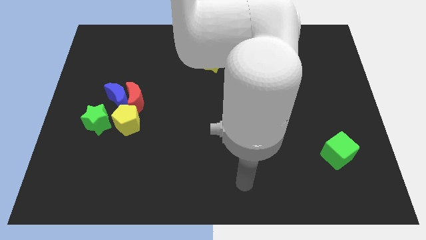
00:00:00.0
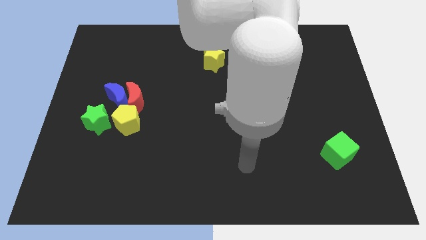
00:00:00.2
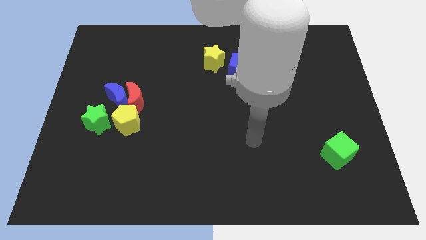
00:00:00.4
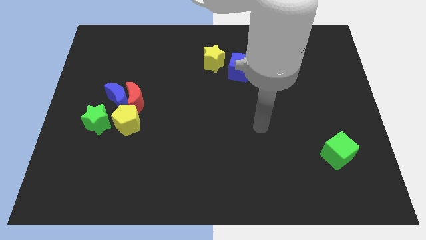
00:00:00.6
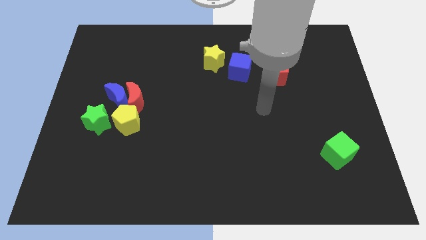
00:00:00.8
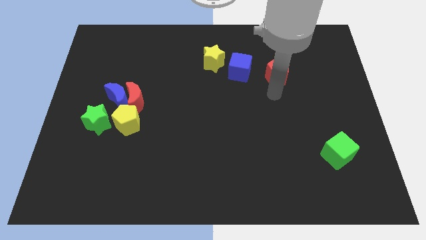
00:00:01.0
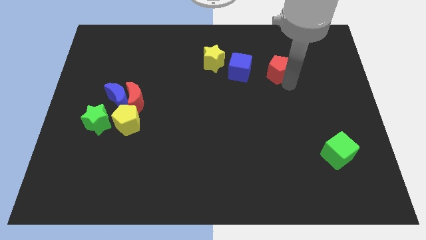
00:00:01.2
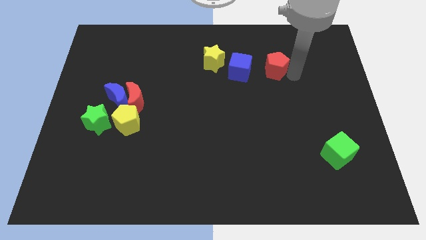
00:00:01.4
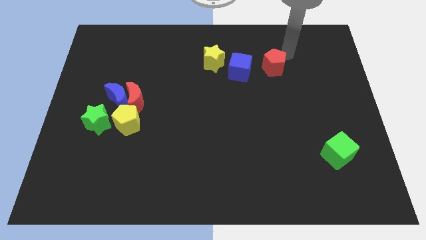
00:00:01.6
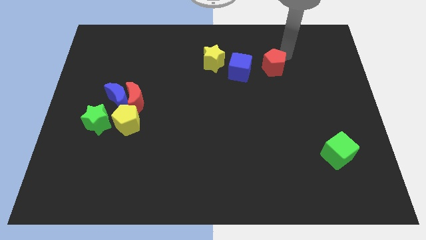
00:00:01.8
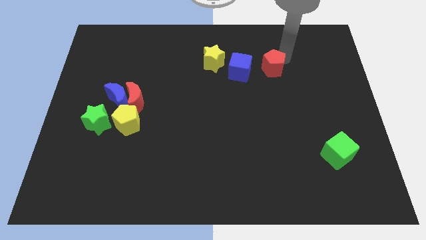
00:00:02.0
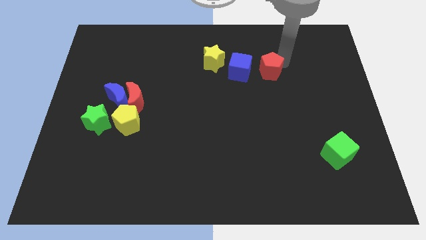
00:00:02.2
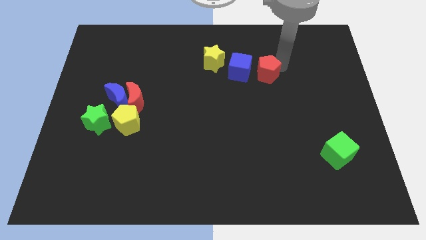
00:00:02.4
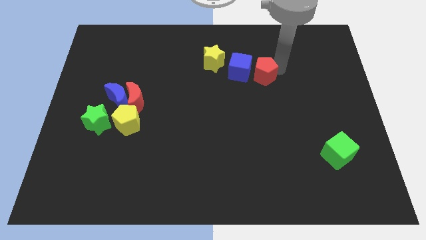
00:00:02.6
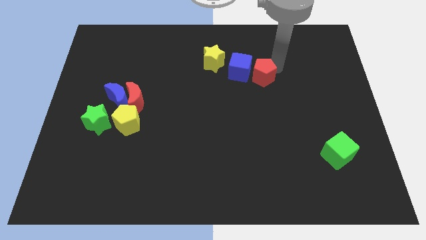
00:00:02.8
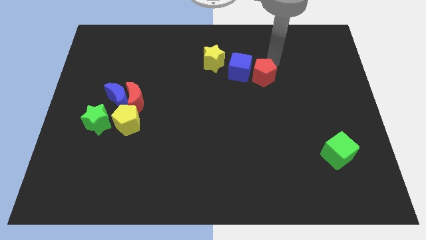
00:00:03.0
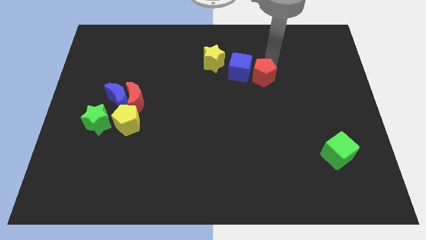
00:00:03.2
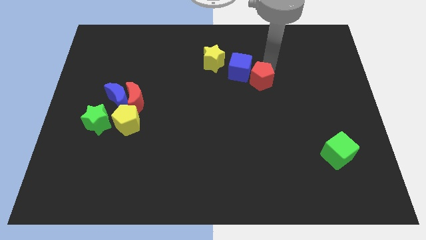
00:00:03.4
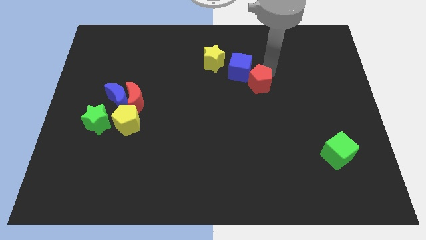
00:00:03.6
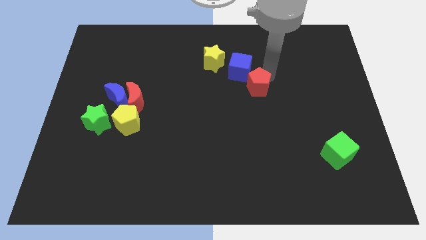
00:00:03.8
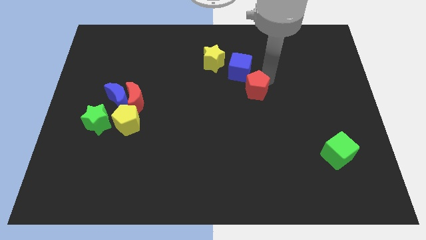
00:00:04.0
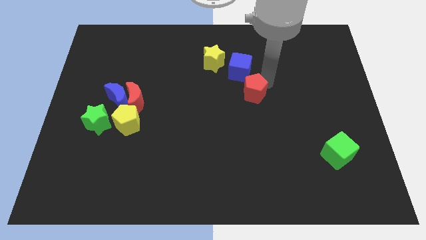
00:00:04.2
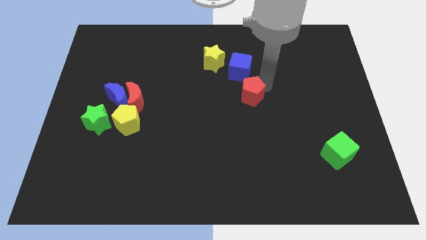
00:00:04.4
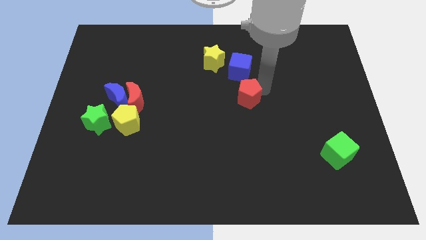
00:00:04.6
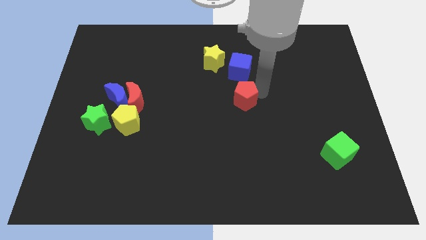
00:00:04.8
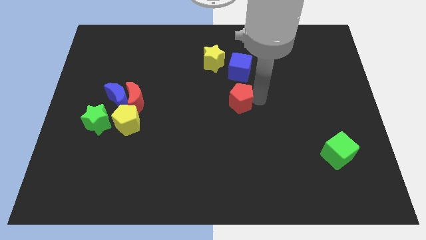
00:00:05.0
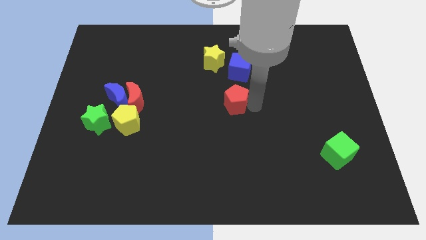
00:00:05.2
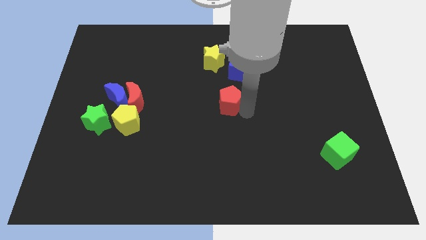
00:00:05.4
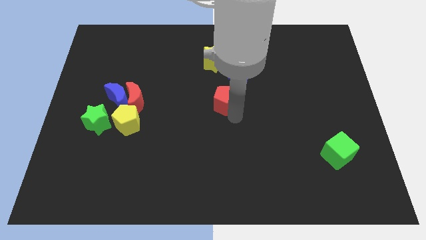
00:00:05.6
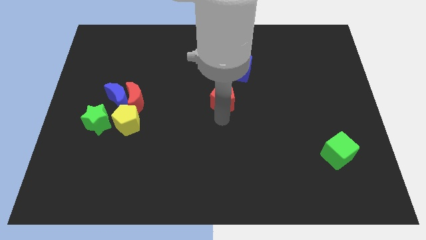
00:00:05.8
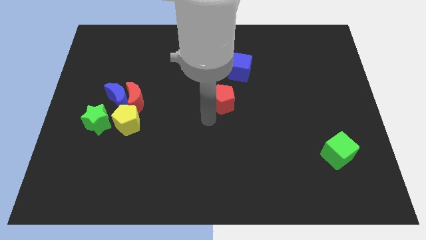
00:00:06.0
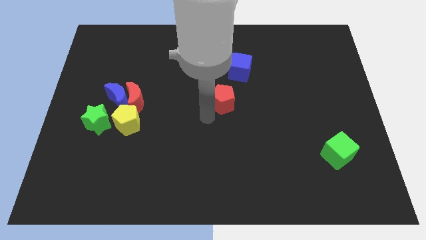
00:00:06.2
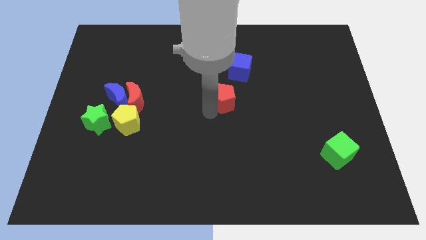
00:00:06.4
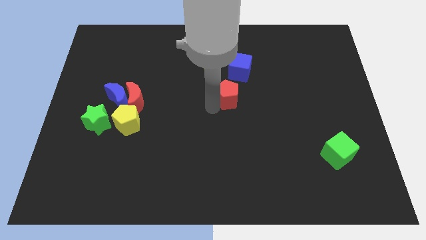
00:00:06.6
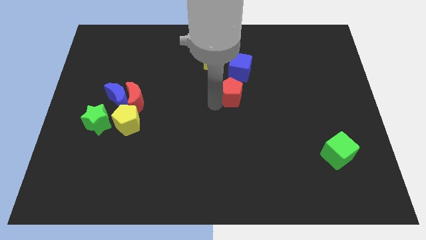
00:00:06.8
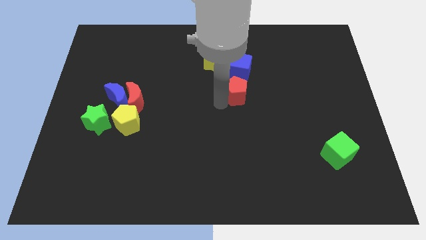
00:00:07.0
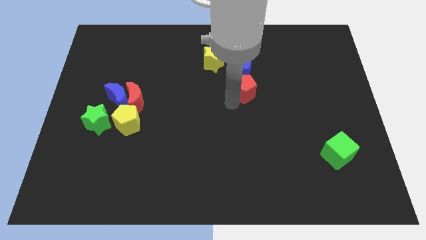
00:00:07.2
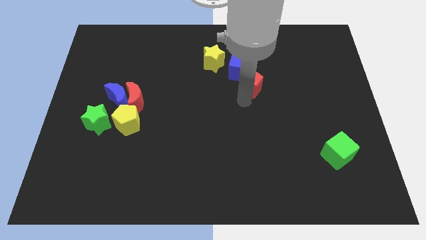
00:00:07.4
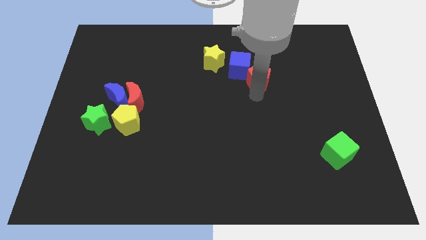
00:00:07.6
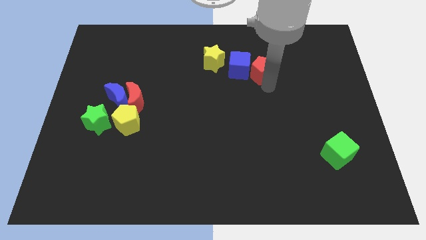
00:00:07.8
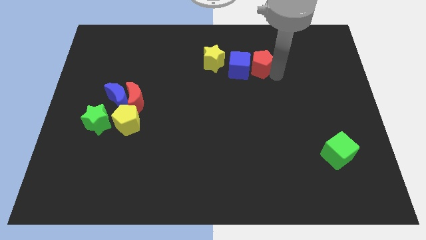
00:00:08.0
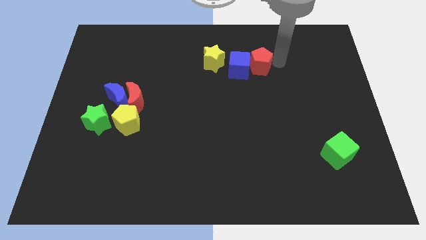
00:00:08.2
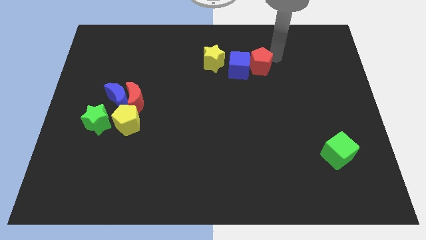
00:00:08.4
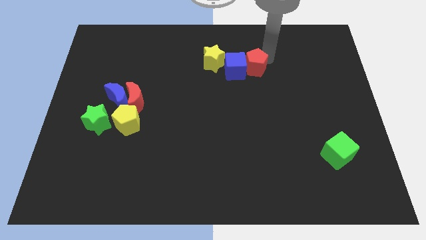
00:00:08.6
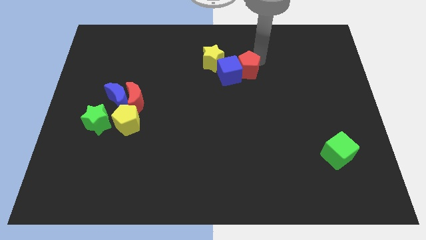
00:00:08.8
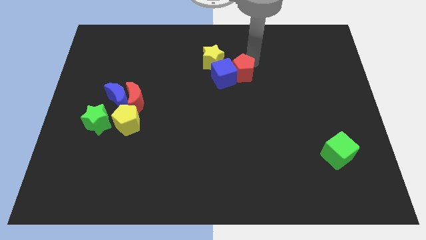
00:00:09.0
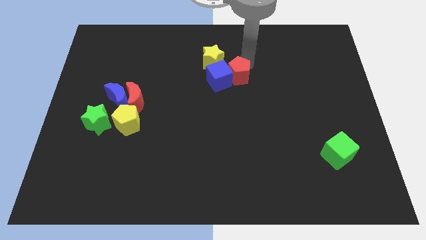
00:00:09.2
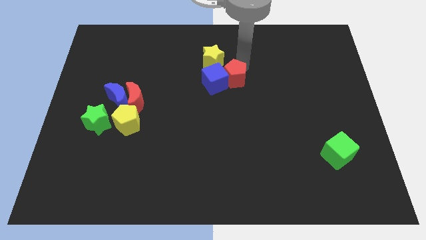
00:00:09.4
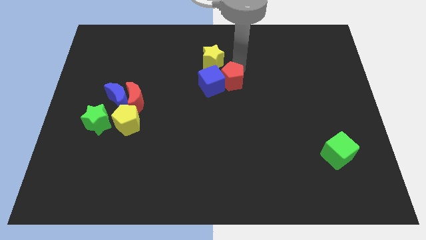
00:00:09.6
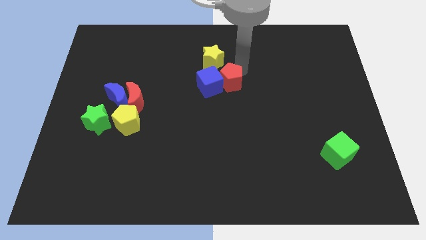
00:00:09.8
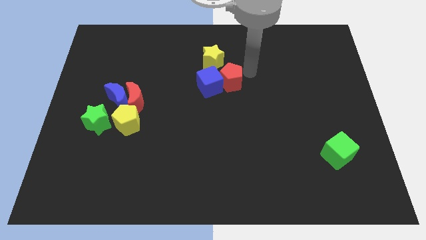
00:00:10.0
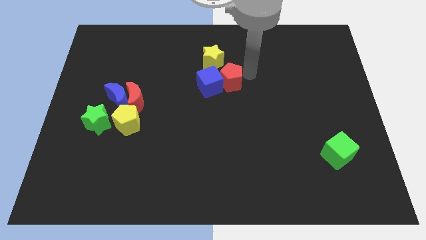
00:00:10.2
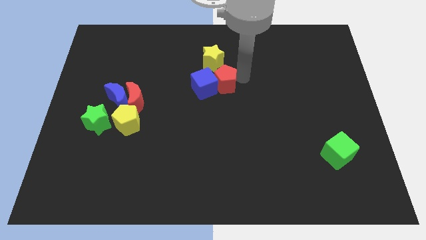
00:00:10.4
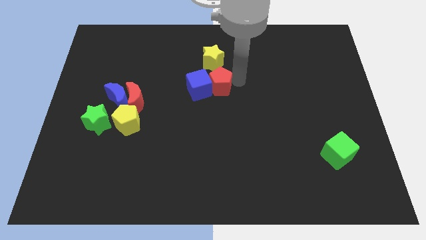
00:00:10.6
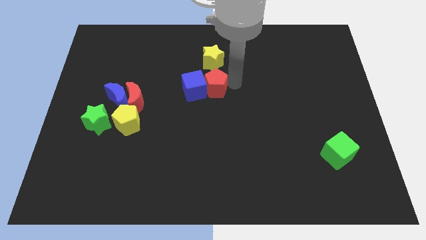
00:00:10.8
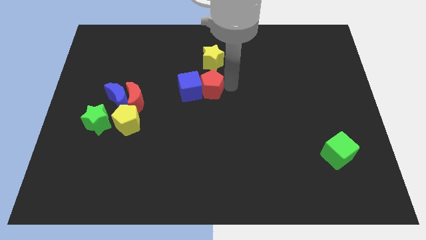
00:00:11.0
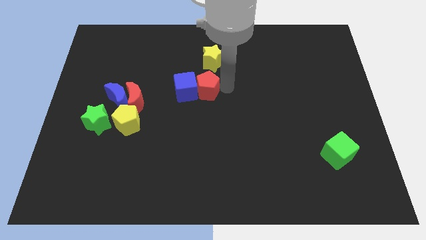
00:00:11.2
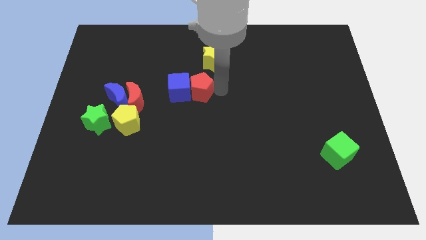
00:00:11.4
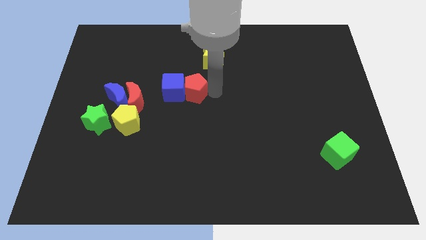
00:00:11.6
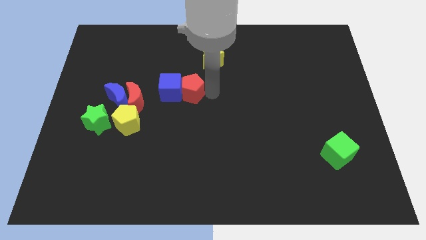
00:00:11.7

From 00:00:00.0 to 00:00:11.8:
move the red pentagon to the left

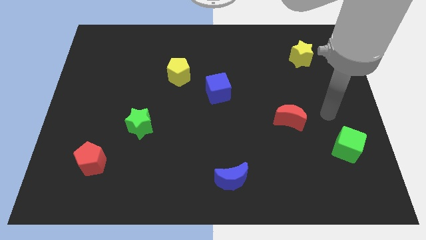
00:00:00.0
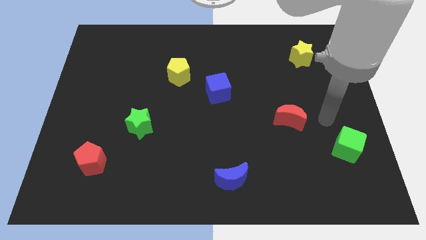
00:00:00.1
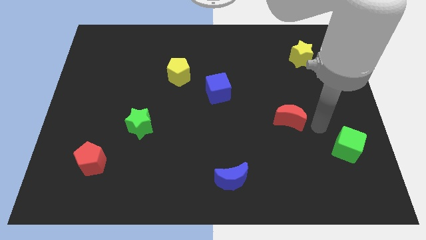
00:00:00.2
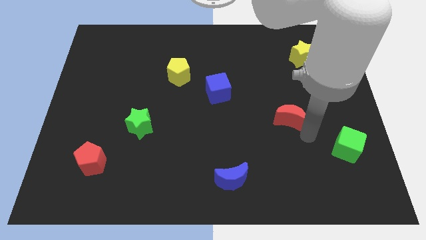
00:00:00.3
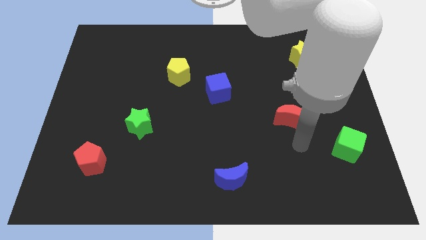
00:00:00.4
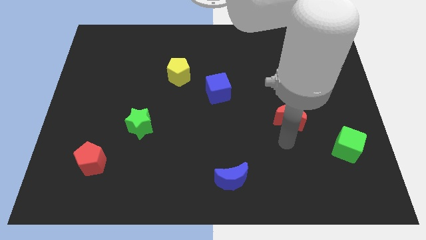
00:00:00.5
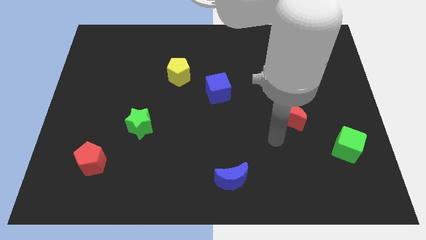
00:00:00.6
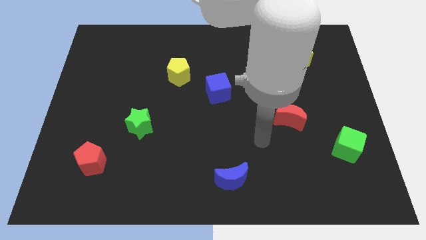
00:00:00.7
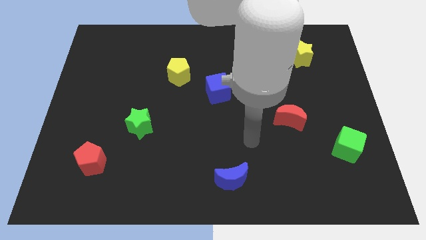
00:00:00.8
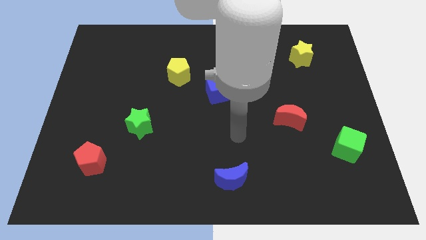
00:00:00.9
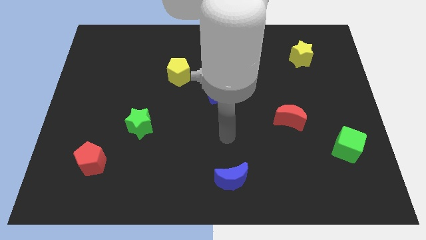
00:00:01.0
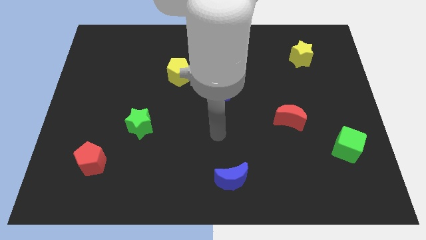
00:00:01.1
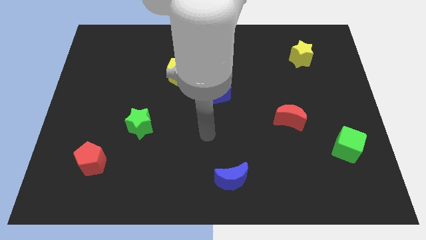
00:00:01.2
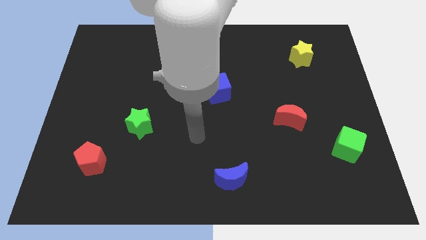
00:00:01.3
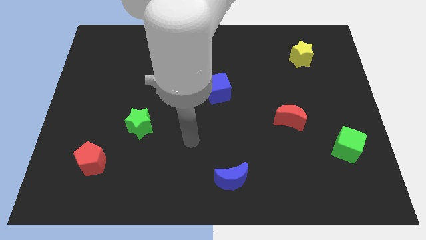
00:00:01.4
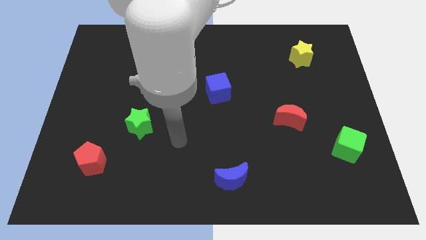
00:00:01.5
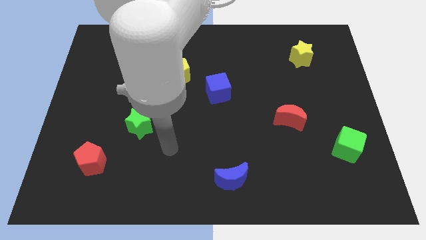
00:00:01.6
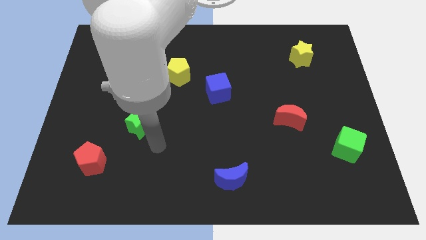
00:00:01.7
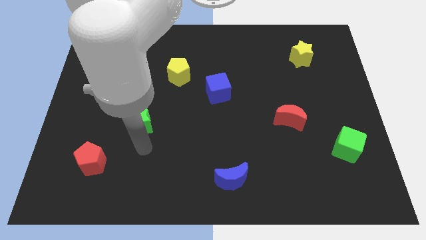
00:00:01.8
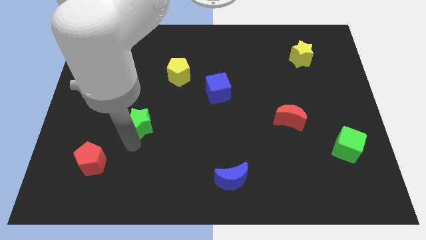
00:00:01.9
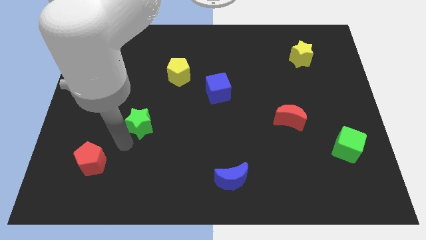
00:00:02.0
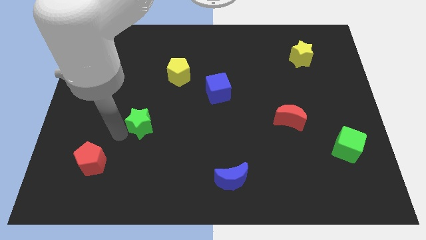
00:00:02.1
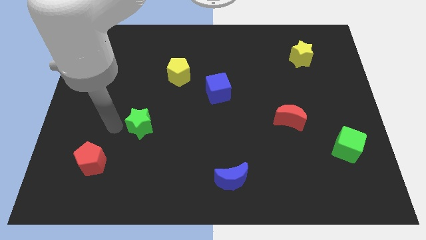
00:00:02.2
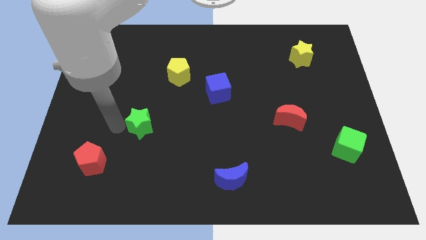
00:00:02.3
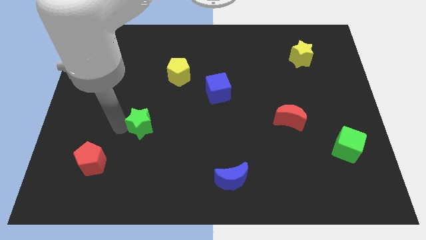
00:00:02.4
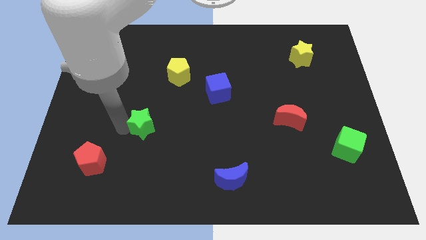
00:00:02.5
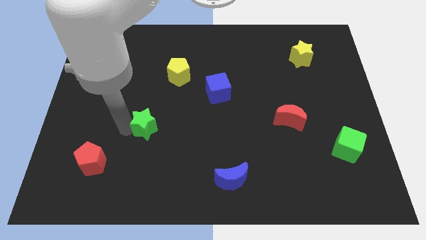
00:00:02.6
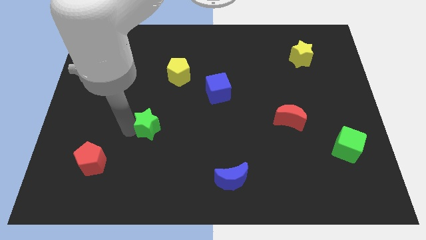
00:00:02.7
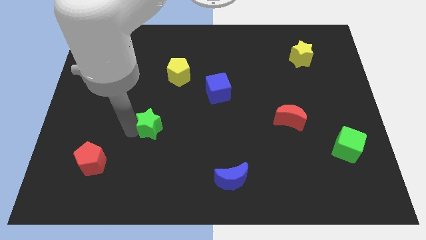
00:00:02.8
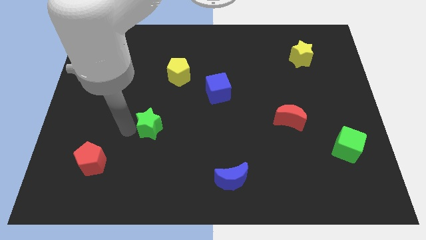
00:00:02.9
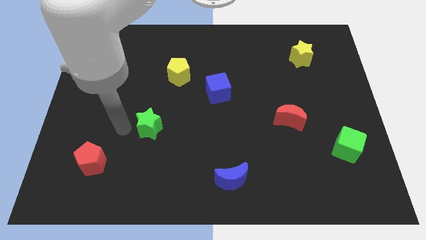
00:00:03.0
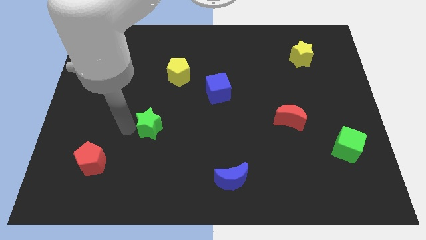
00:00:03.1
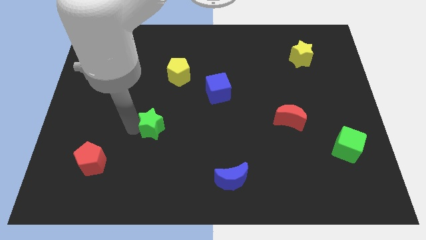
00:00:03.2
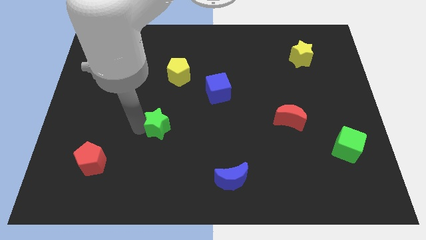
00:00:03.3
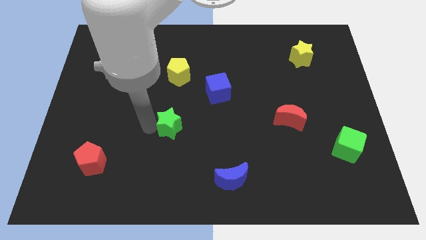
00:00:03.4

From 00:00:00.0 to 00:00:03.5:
slightly move the green star to the right
